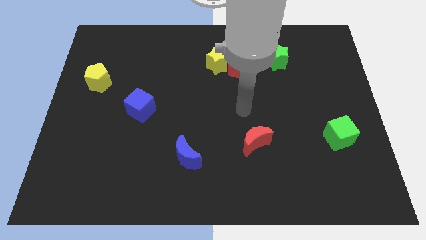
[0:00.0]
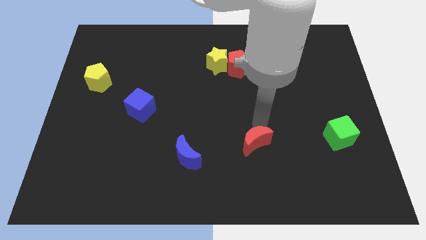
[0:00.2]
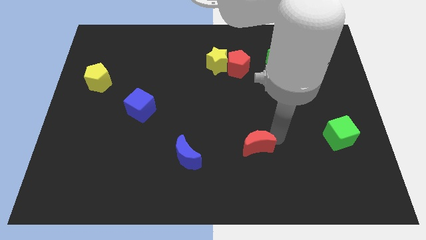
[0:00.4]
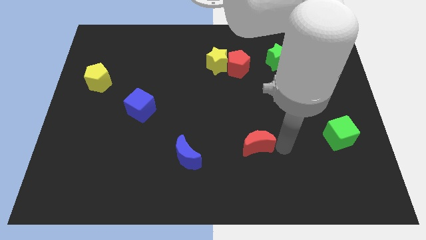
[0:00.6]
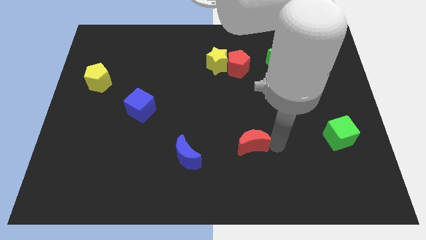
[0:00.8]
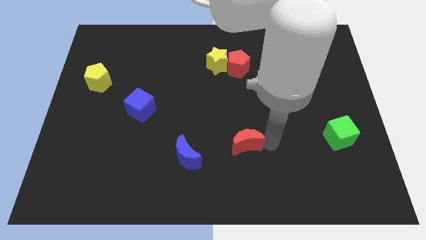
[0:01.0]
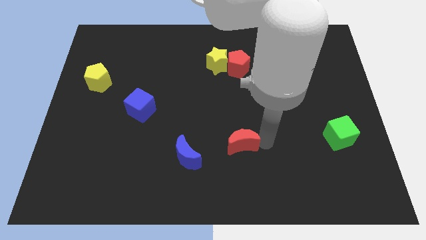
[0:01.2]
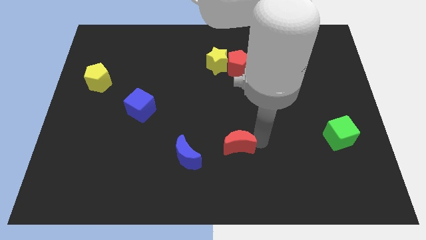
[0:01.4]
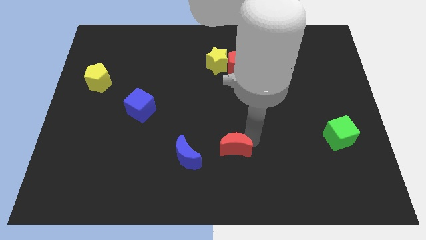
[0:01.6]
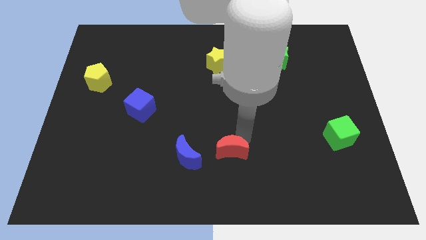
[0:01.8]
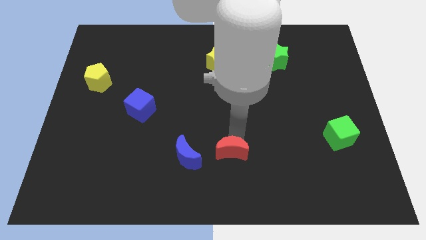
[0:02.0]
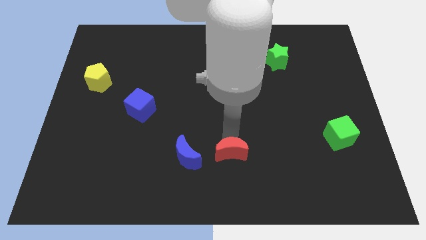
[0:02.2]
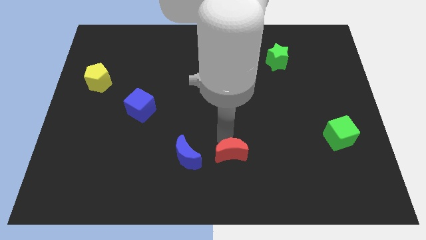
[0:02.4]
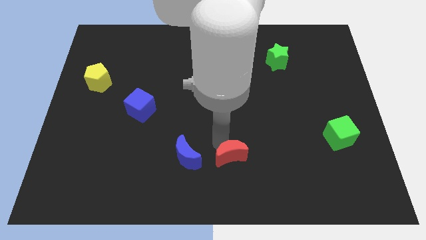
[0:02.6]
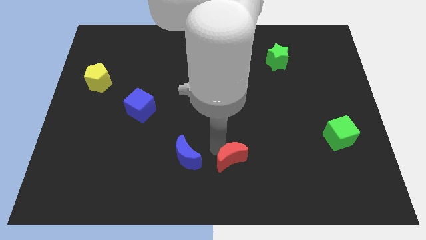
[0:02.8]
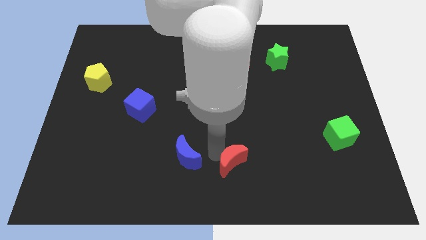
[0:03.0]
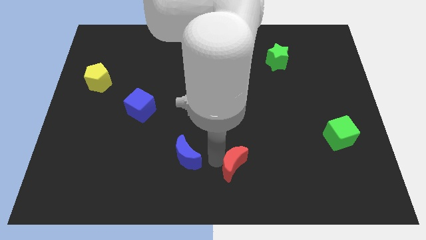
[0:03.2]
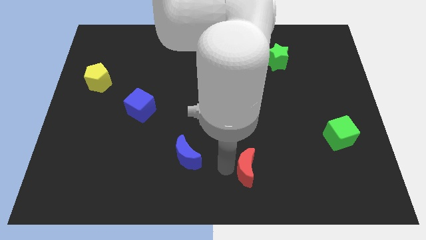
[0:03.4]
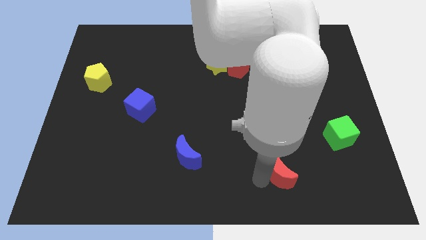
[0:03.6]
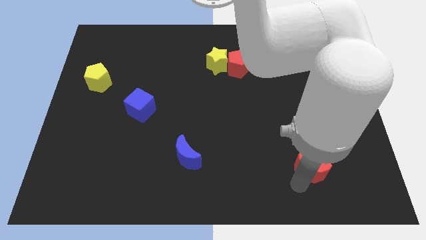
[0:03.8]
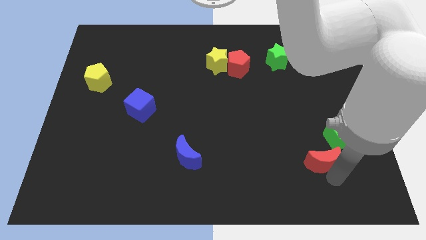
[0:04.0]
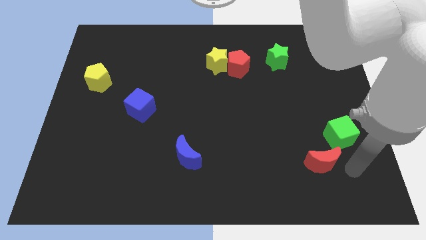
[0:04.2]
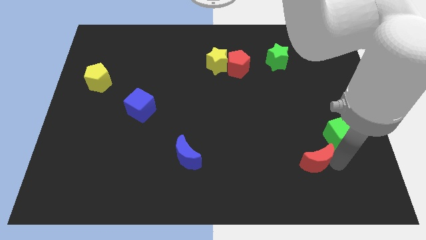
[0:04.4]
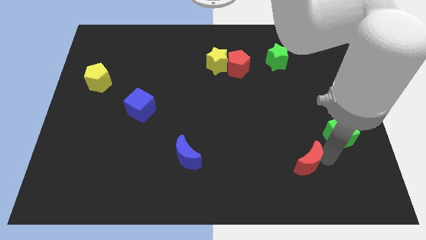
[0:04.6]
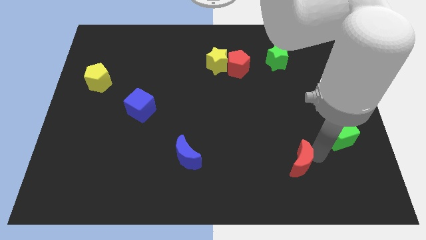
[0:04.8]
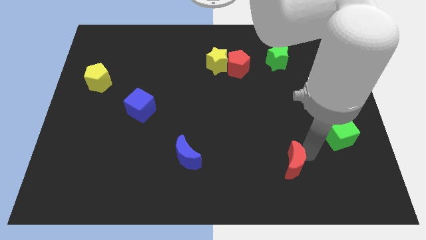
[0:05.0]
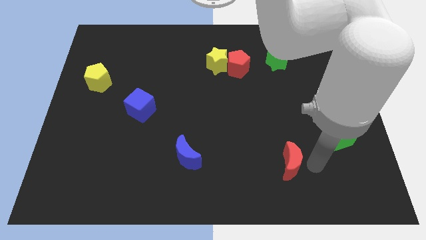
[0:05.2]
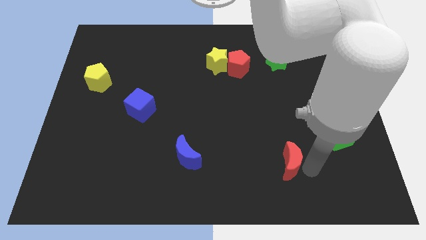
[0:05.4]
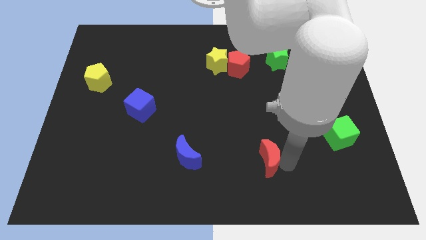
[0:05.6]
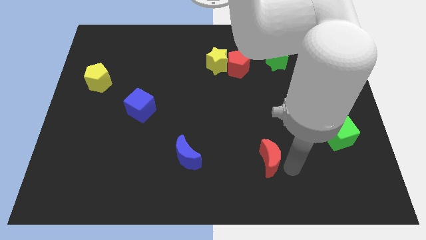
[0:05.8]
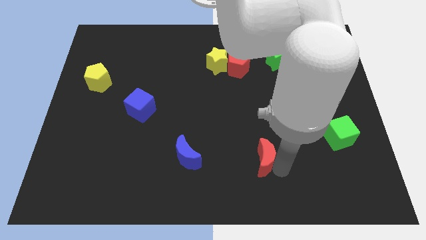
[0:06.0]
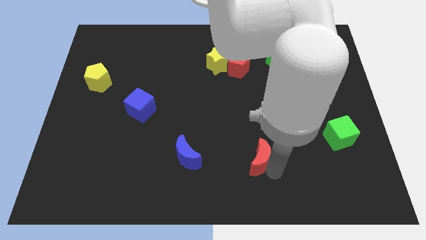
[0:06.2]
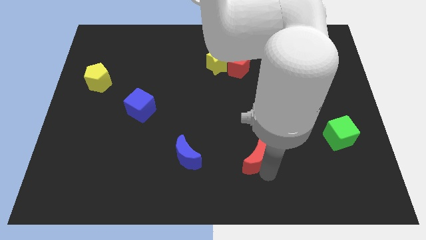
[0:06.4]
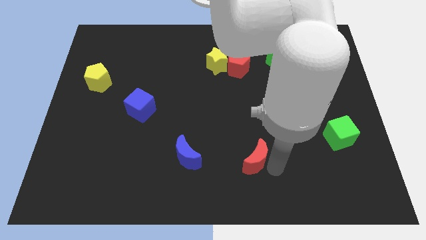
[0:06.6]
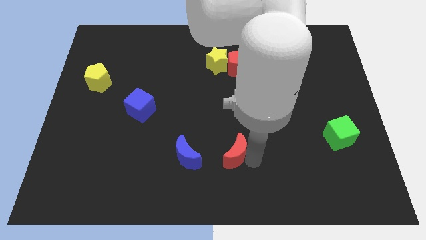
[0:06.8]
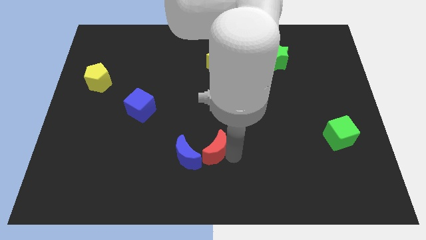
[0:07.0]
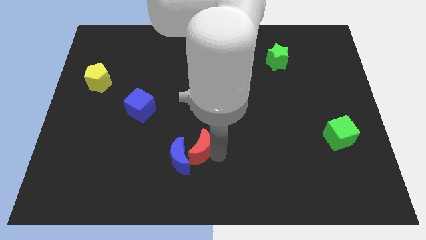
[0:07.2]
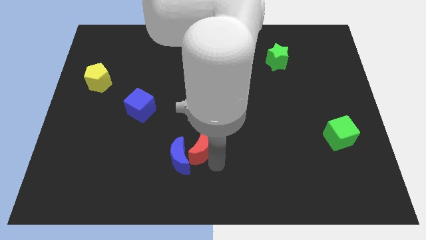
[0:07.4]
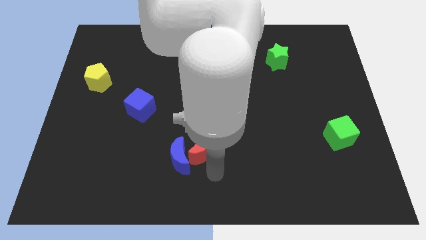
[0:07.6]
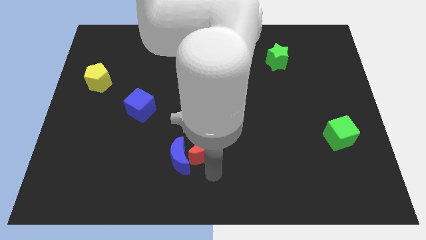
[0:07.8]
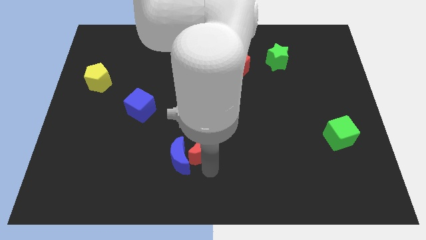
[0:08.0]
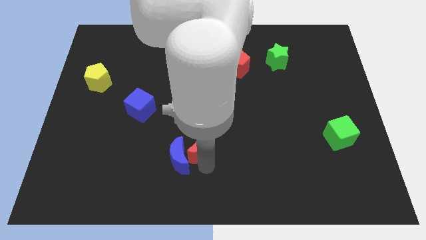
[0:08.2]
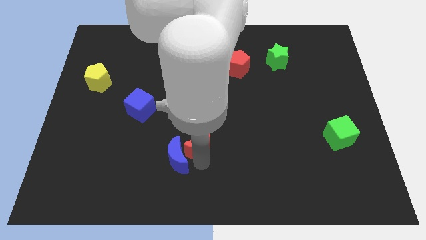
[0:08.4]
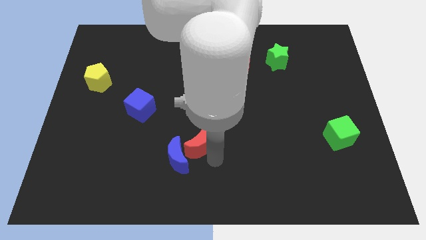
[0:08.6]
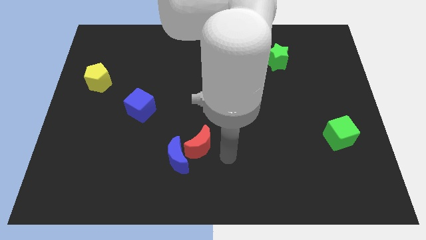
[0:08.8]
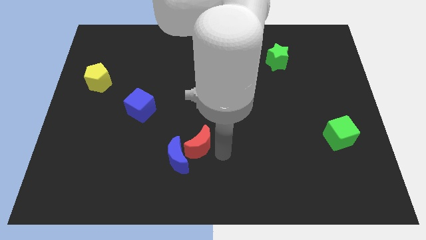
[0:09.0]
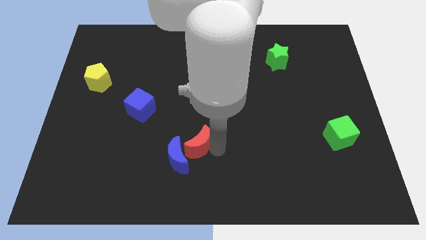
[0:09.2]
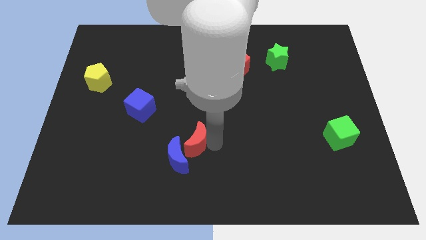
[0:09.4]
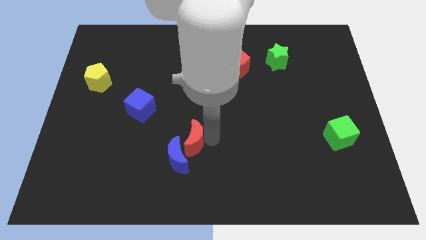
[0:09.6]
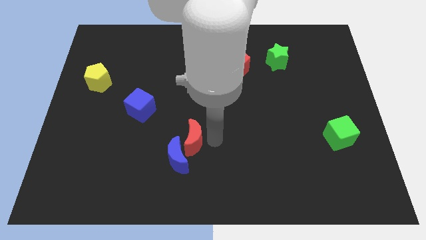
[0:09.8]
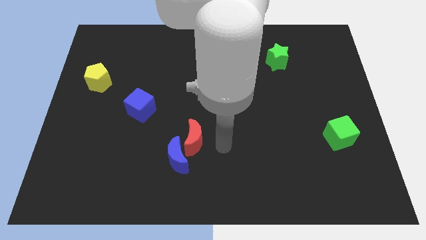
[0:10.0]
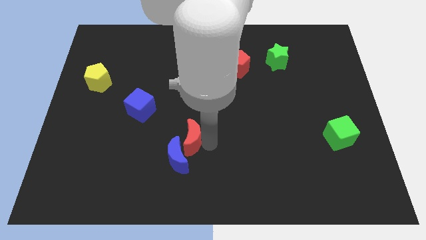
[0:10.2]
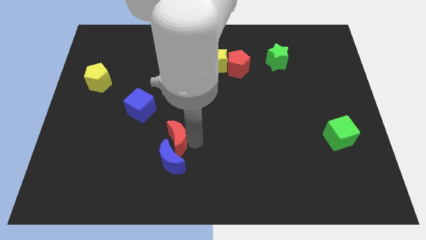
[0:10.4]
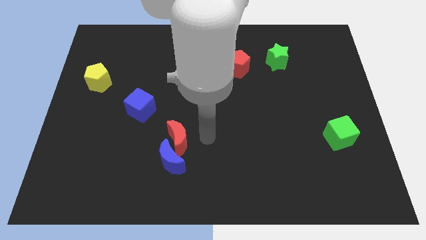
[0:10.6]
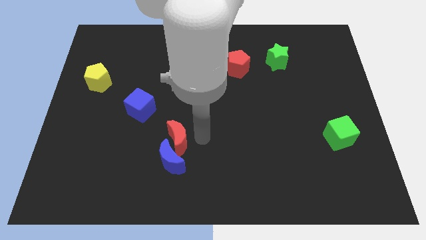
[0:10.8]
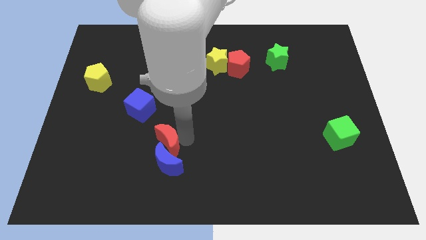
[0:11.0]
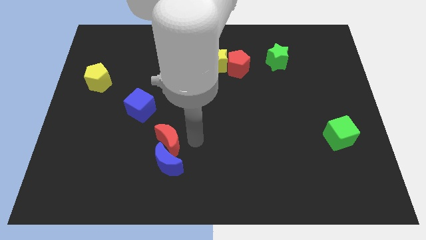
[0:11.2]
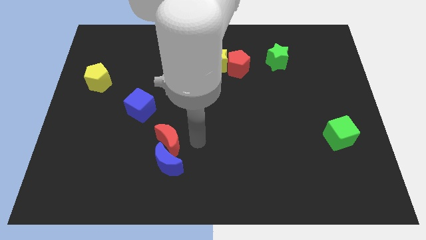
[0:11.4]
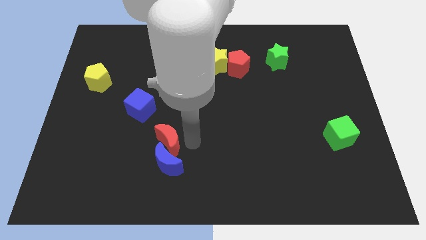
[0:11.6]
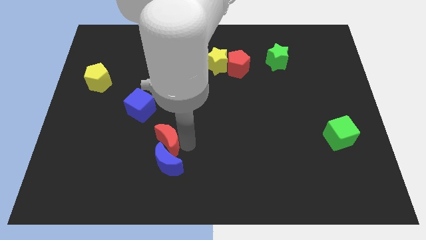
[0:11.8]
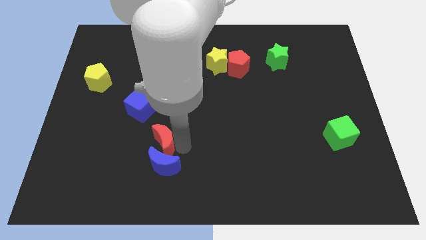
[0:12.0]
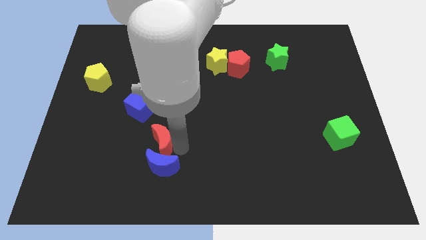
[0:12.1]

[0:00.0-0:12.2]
move the red moon left

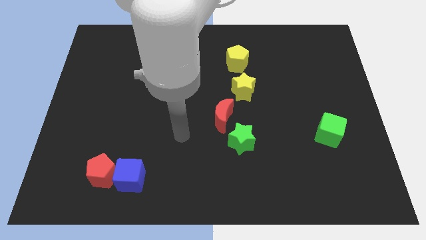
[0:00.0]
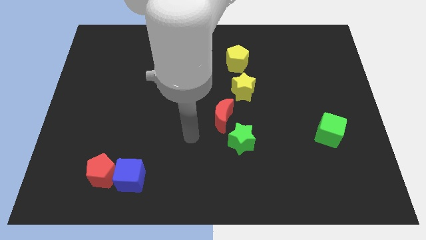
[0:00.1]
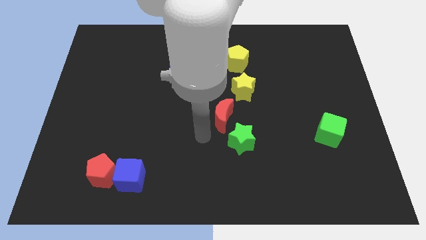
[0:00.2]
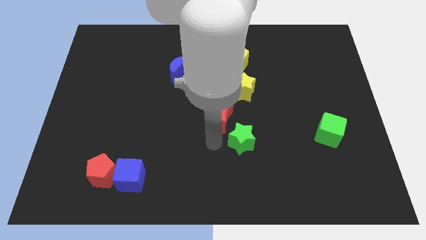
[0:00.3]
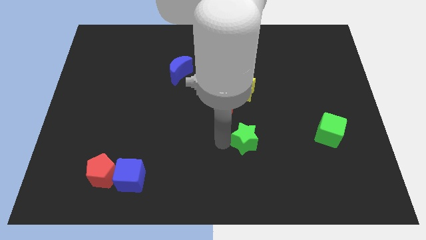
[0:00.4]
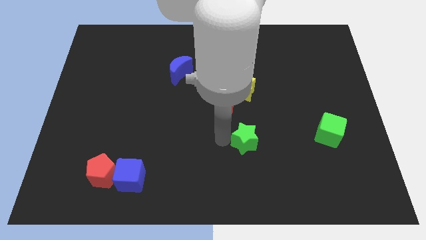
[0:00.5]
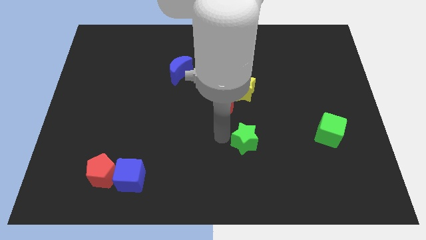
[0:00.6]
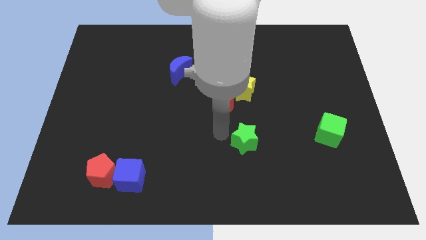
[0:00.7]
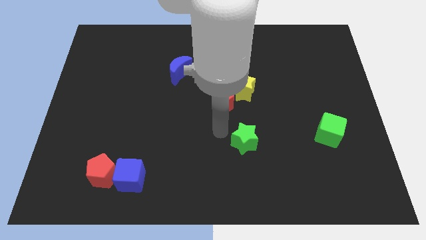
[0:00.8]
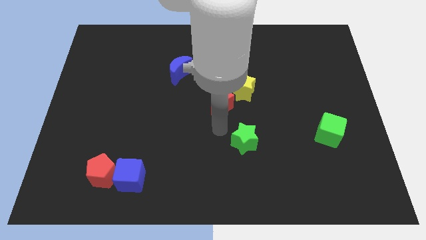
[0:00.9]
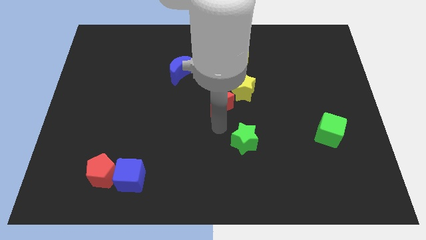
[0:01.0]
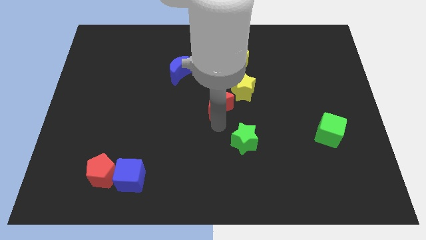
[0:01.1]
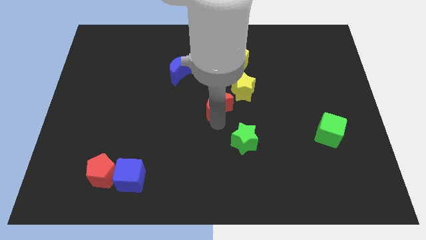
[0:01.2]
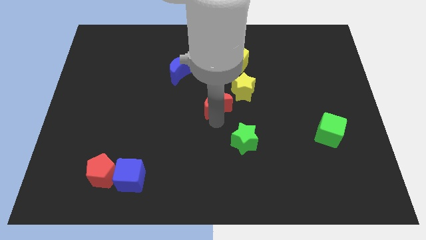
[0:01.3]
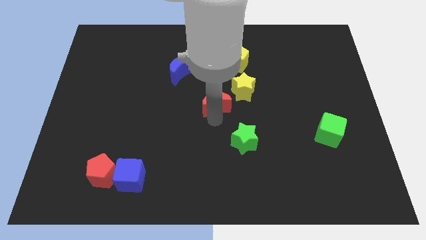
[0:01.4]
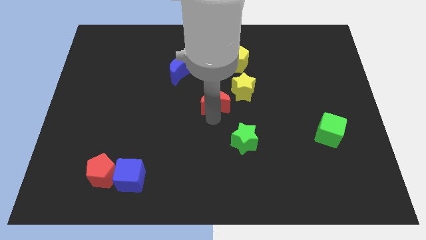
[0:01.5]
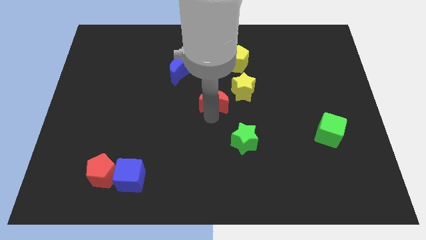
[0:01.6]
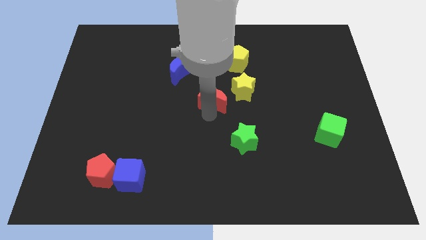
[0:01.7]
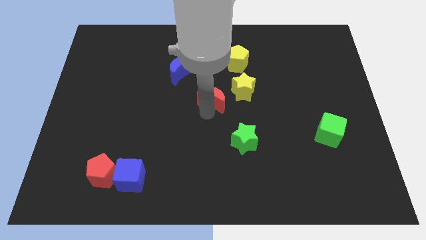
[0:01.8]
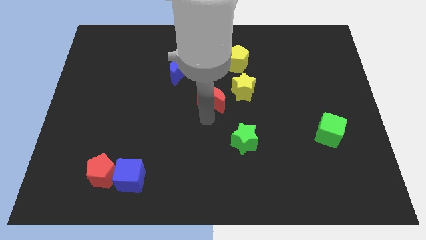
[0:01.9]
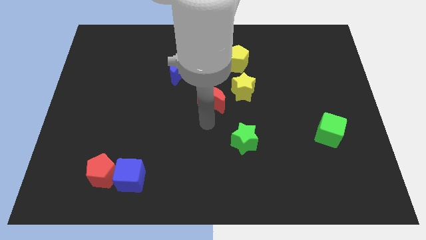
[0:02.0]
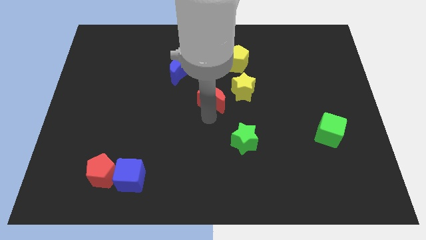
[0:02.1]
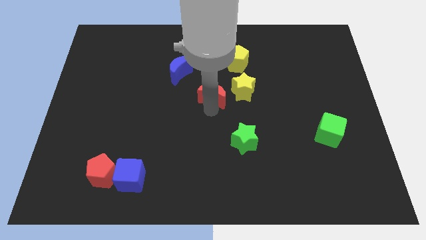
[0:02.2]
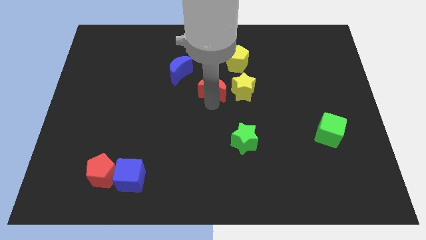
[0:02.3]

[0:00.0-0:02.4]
move the red moon up a bit

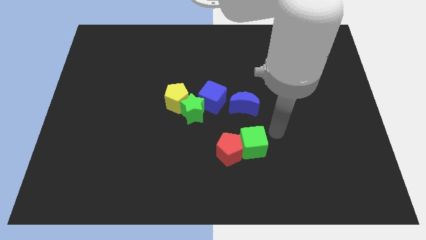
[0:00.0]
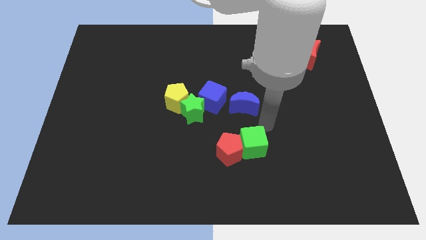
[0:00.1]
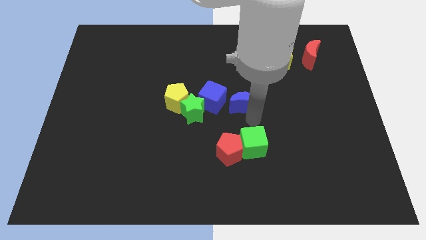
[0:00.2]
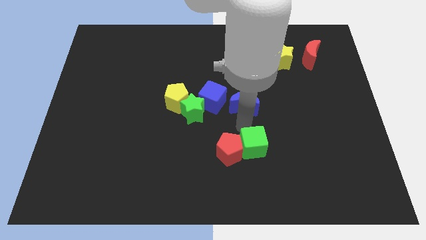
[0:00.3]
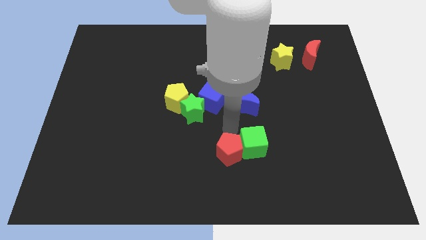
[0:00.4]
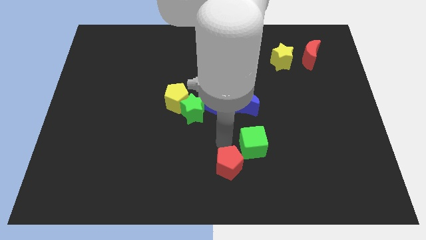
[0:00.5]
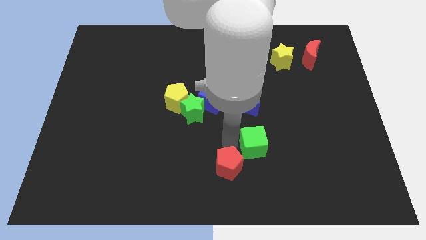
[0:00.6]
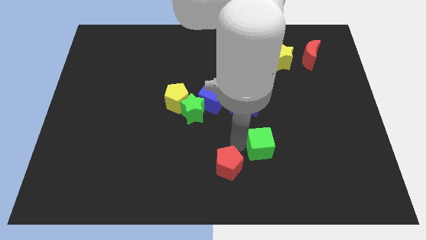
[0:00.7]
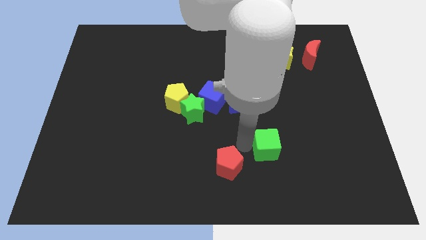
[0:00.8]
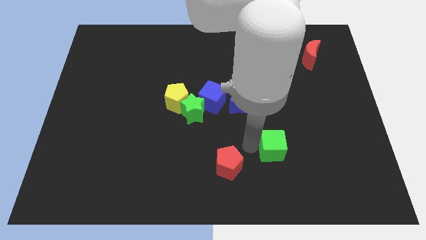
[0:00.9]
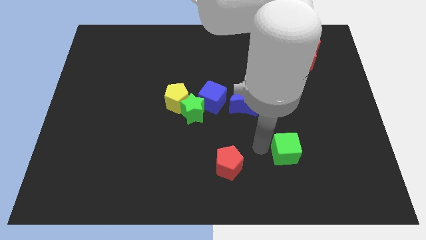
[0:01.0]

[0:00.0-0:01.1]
slightly move the green cube to the right
